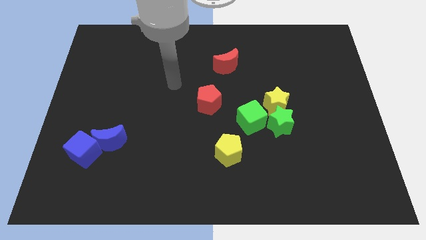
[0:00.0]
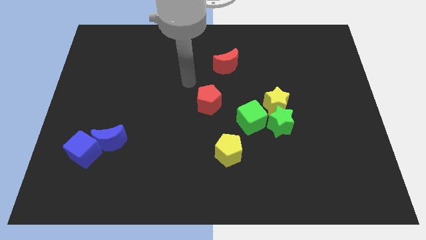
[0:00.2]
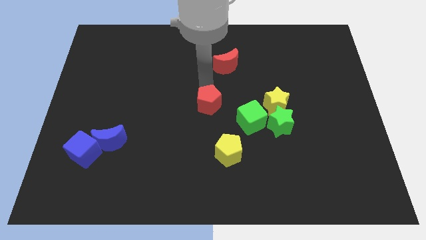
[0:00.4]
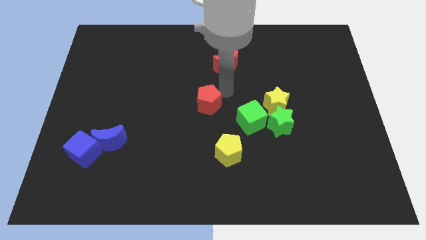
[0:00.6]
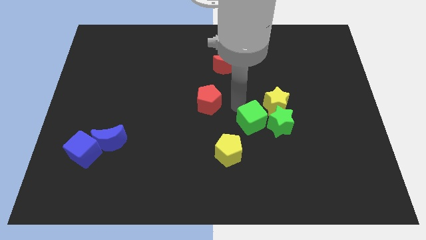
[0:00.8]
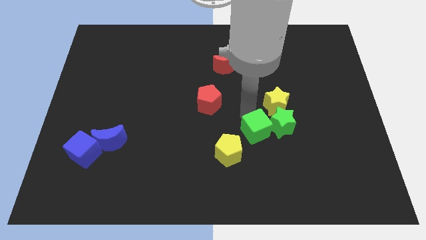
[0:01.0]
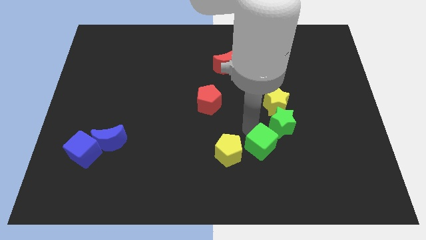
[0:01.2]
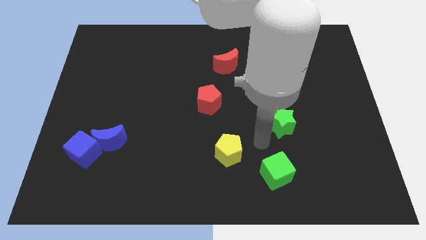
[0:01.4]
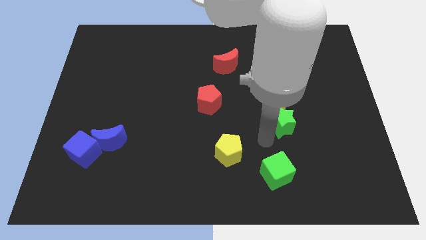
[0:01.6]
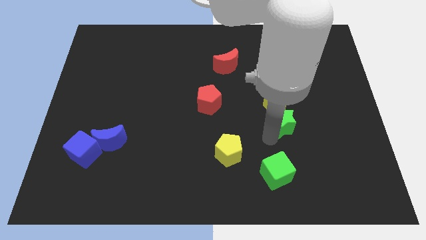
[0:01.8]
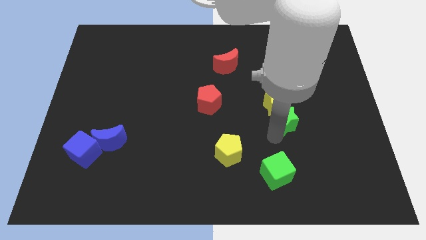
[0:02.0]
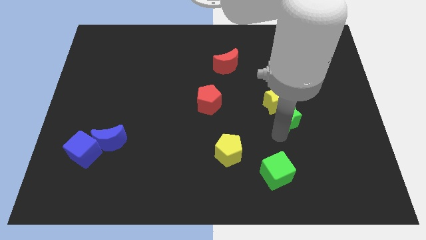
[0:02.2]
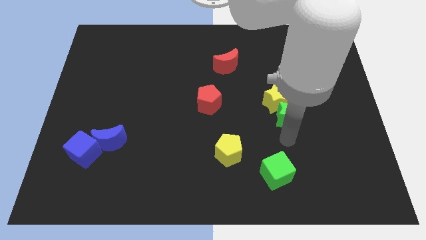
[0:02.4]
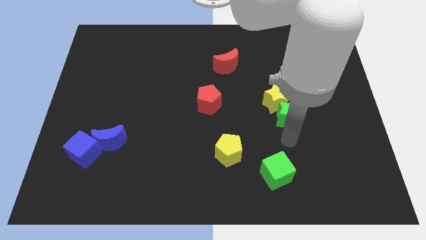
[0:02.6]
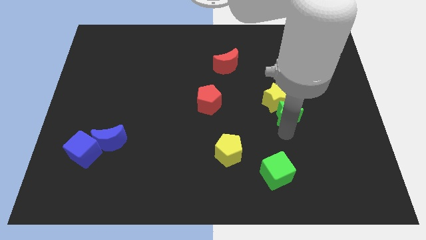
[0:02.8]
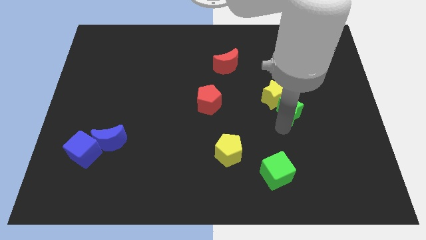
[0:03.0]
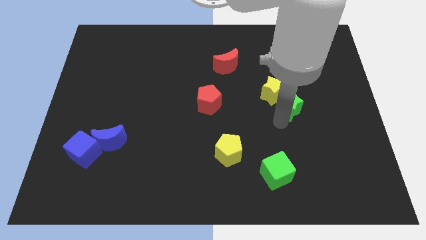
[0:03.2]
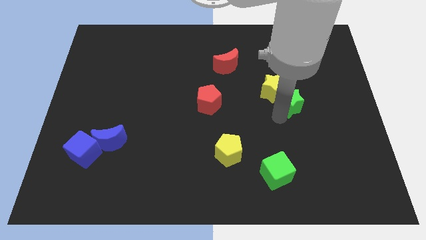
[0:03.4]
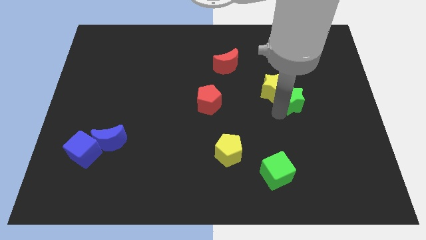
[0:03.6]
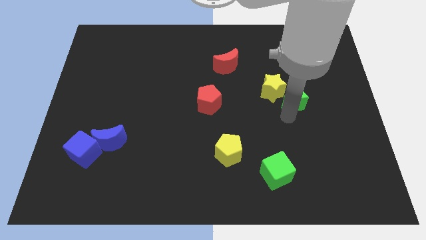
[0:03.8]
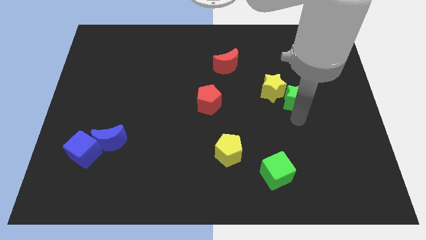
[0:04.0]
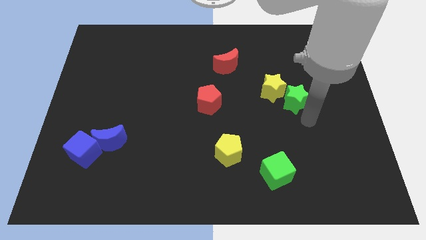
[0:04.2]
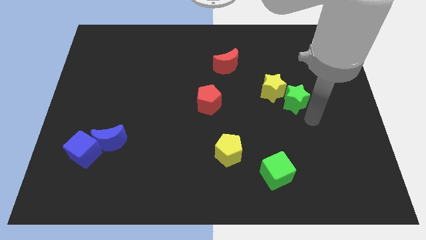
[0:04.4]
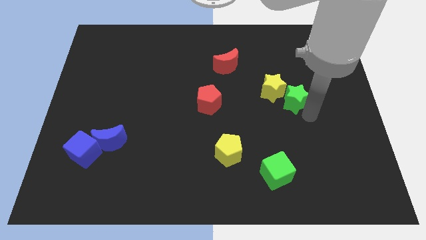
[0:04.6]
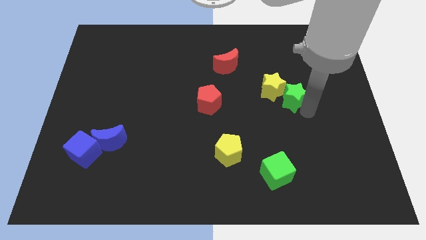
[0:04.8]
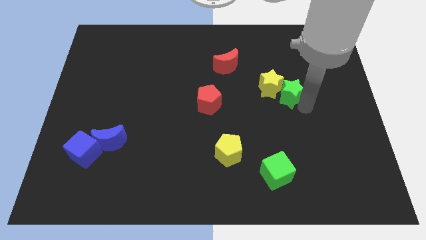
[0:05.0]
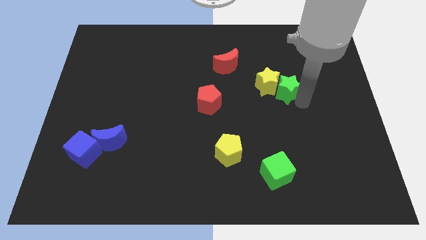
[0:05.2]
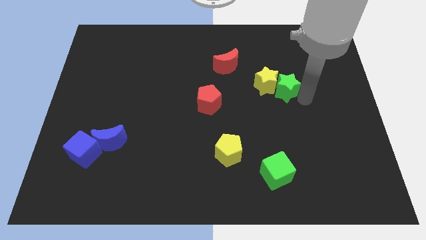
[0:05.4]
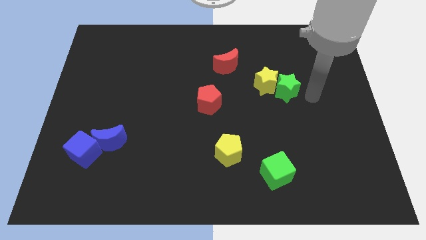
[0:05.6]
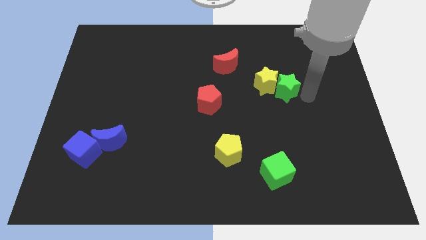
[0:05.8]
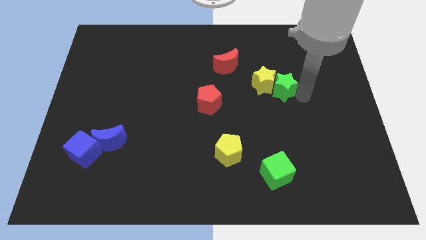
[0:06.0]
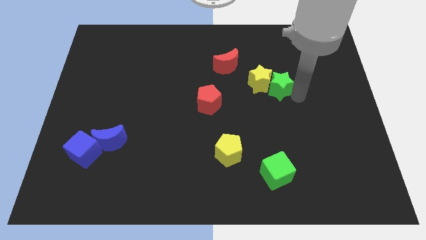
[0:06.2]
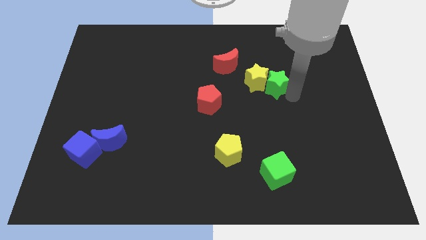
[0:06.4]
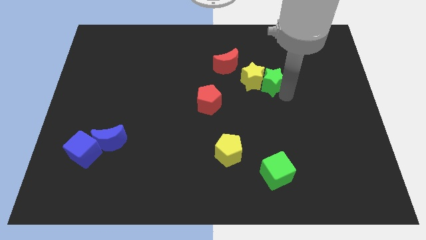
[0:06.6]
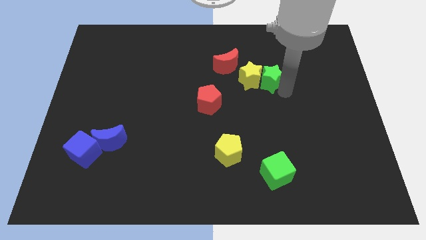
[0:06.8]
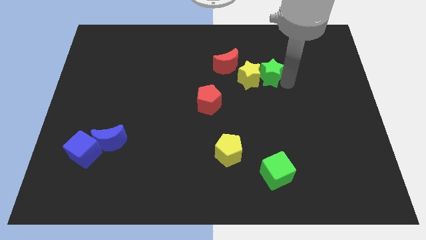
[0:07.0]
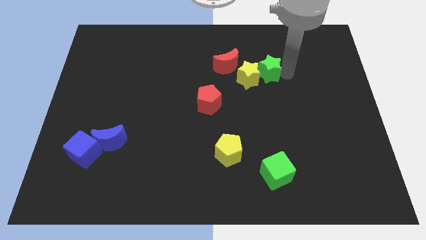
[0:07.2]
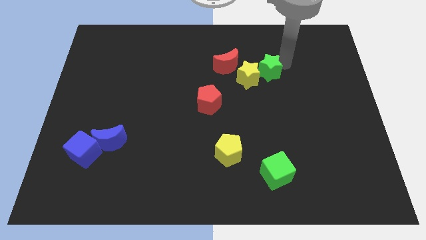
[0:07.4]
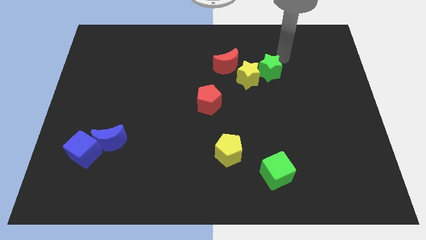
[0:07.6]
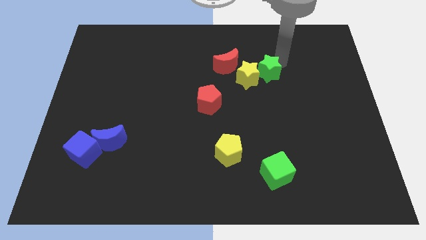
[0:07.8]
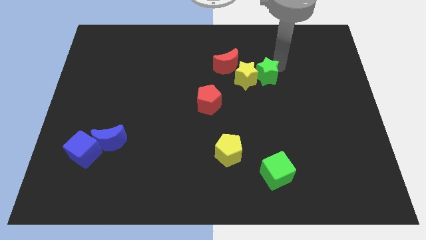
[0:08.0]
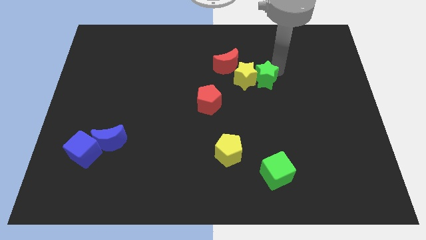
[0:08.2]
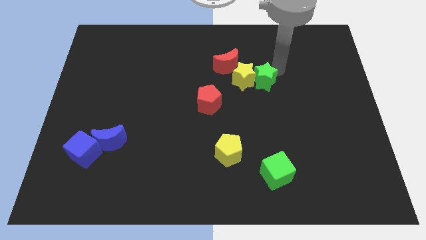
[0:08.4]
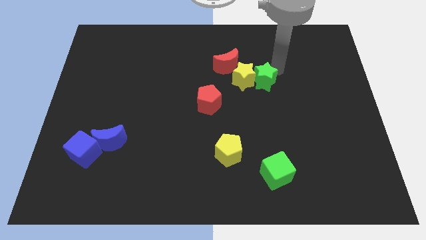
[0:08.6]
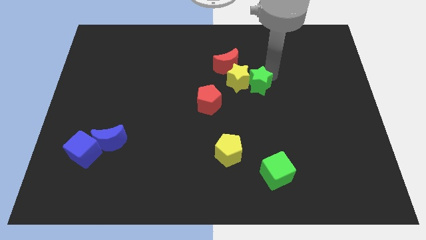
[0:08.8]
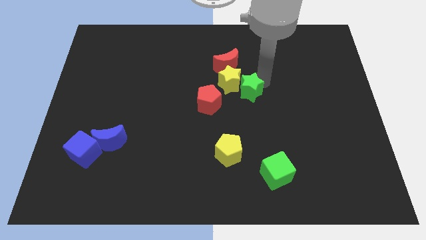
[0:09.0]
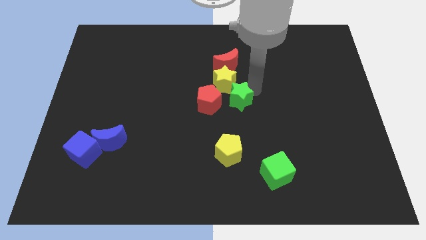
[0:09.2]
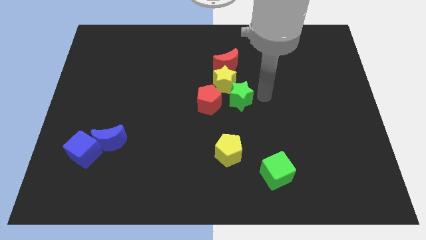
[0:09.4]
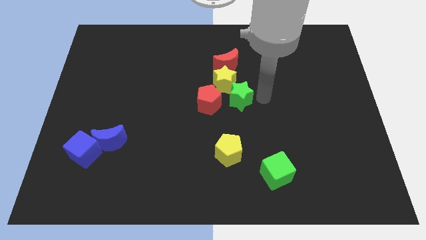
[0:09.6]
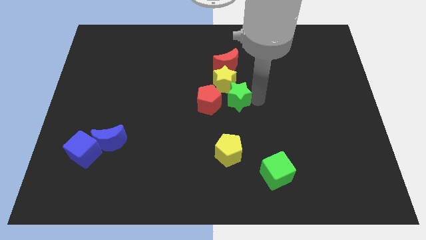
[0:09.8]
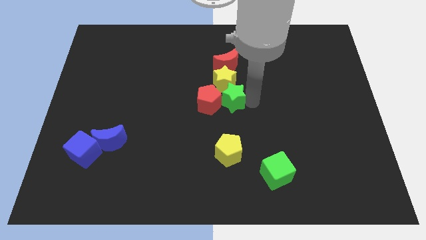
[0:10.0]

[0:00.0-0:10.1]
push the green star close to the red pentagon

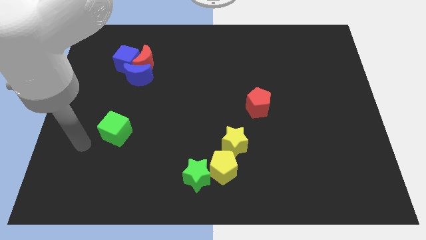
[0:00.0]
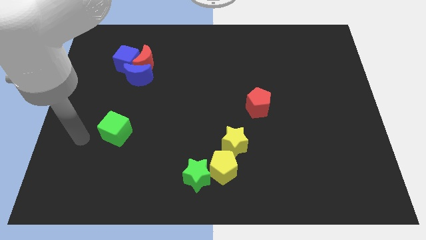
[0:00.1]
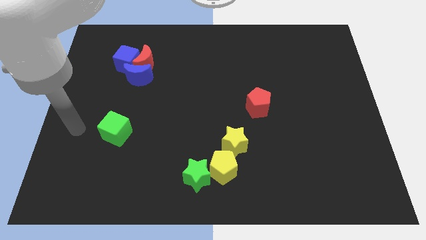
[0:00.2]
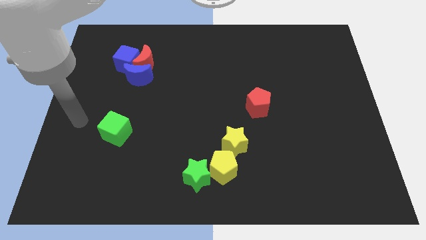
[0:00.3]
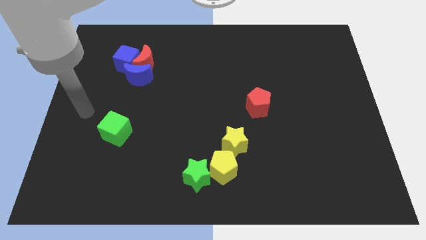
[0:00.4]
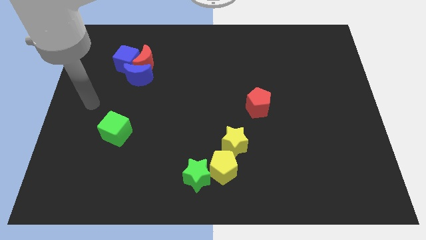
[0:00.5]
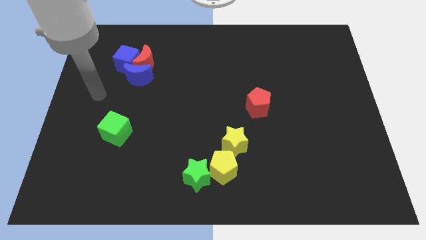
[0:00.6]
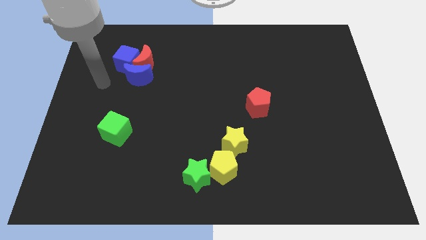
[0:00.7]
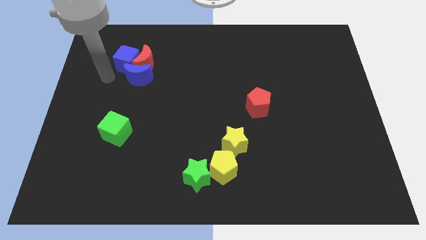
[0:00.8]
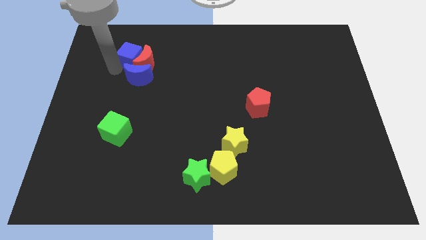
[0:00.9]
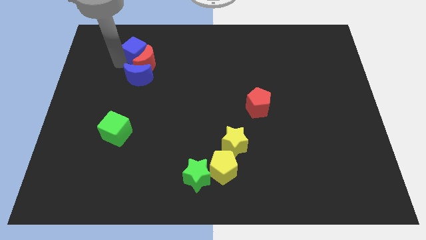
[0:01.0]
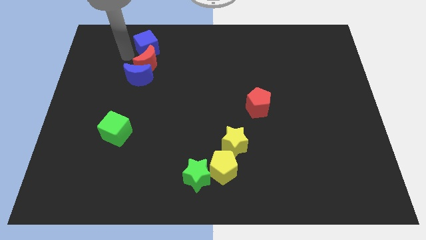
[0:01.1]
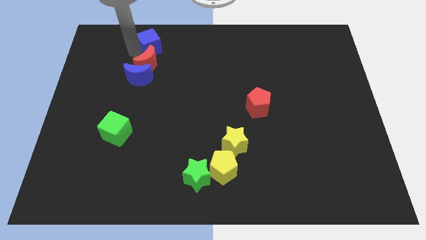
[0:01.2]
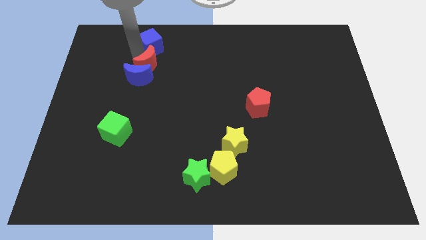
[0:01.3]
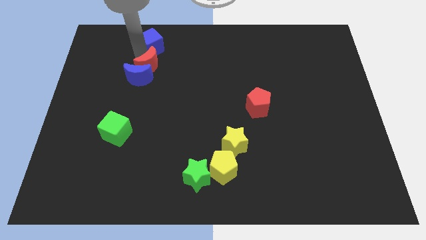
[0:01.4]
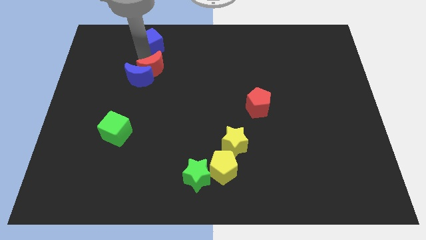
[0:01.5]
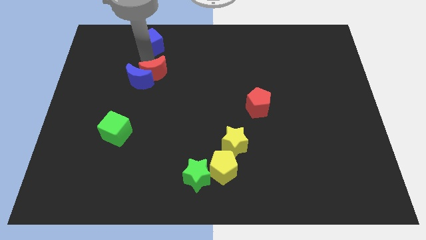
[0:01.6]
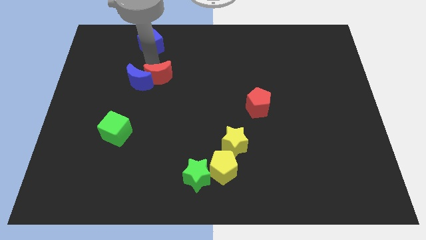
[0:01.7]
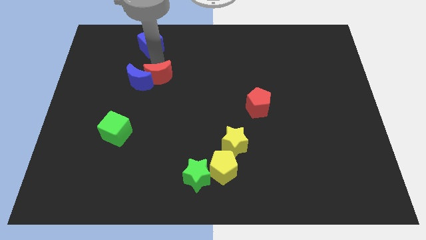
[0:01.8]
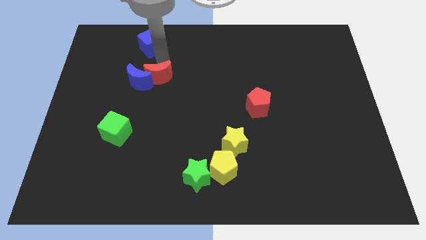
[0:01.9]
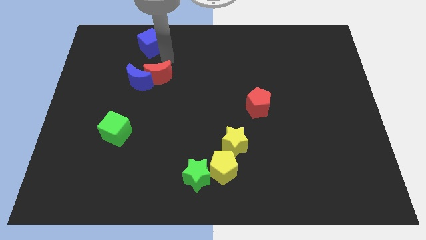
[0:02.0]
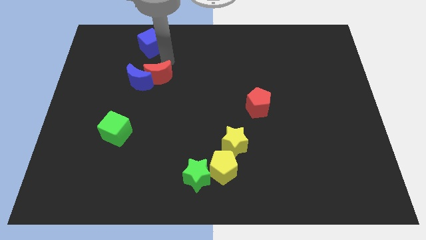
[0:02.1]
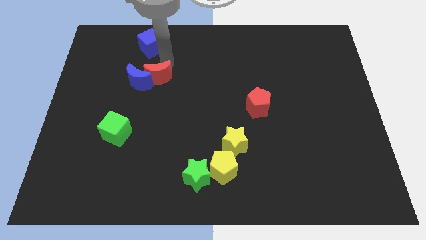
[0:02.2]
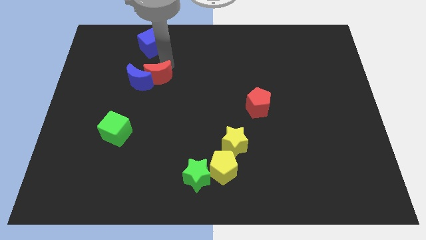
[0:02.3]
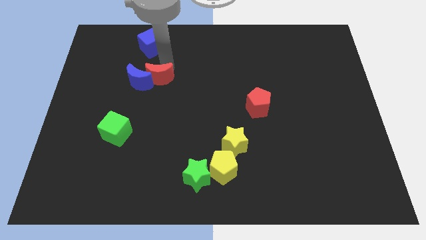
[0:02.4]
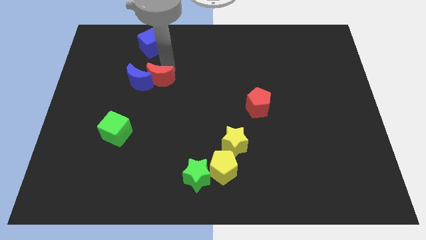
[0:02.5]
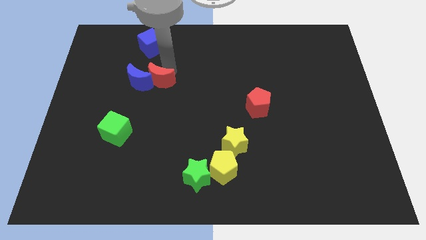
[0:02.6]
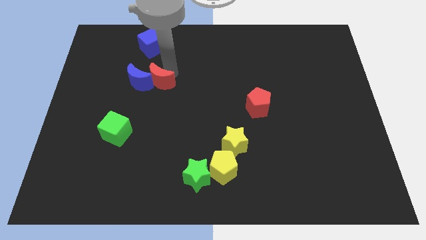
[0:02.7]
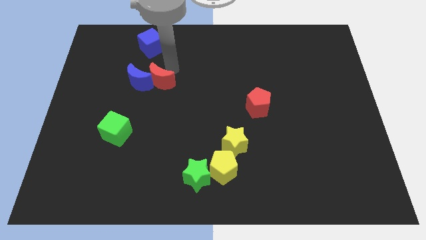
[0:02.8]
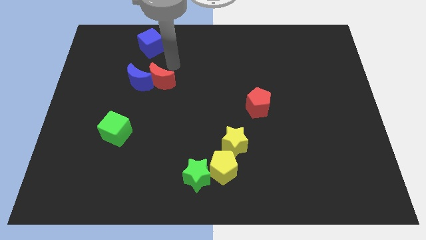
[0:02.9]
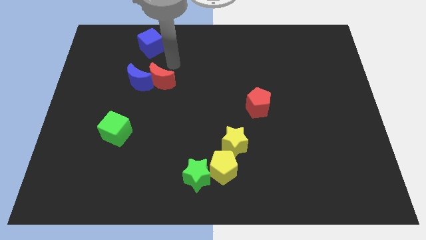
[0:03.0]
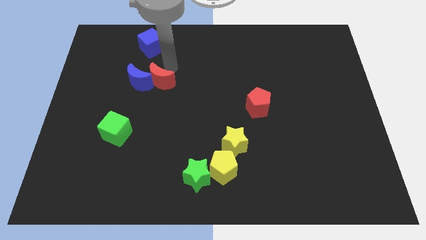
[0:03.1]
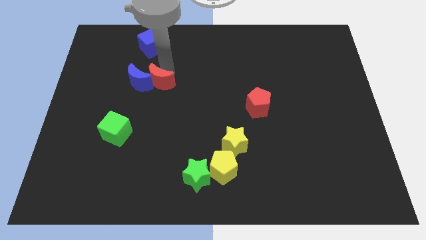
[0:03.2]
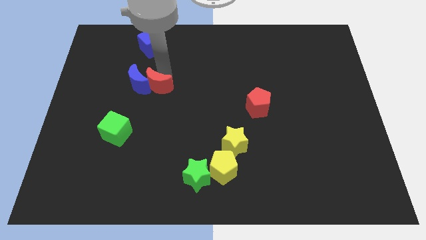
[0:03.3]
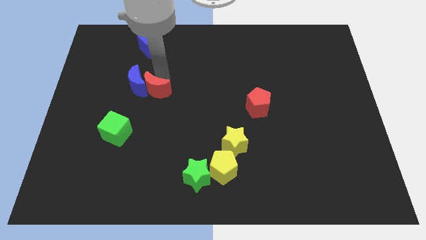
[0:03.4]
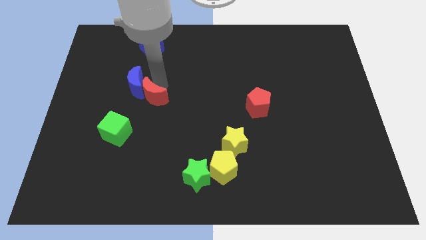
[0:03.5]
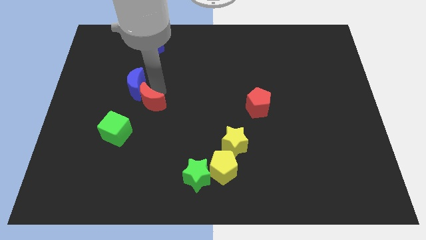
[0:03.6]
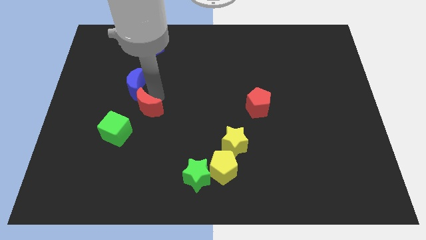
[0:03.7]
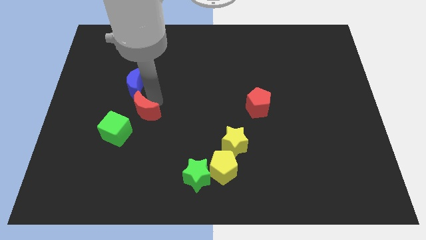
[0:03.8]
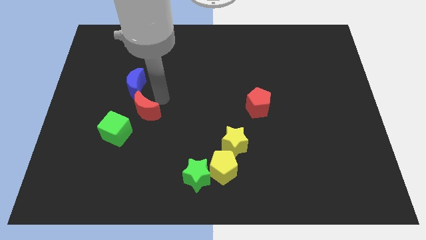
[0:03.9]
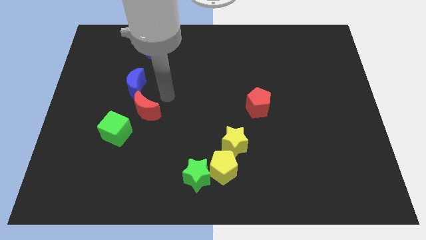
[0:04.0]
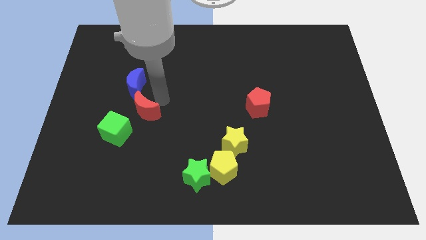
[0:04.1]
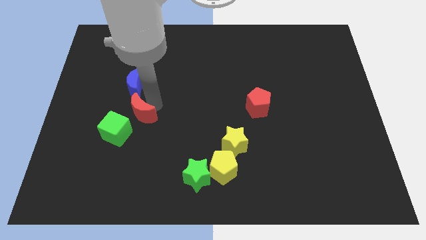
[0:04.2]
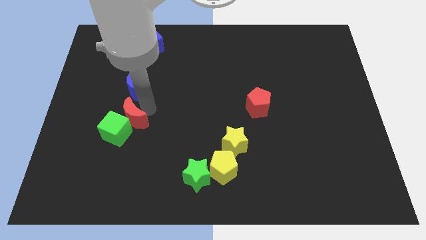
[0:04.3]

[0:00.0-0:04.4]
put the red moon to the green cube
